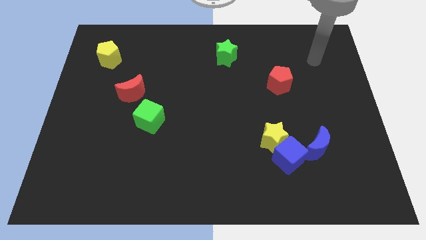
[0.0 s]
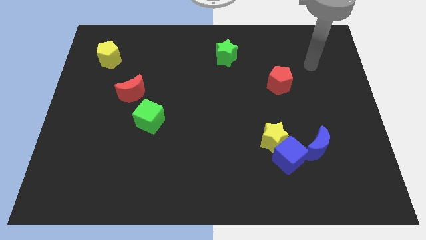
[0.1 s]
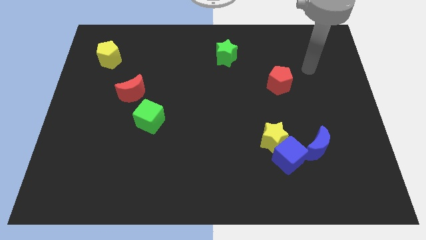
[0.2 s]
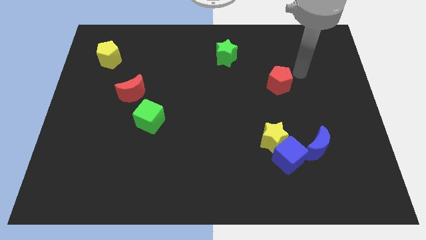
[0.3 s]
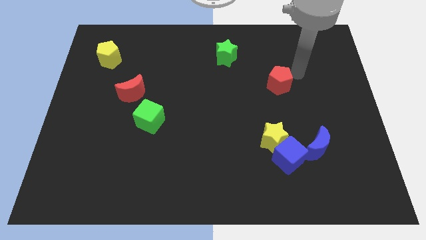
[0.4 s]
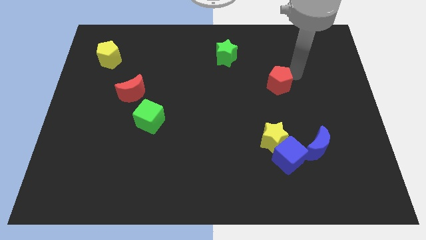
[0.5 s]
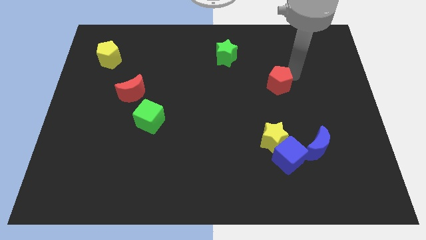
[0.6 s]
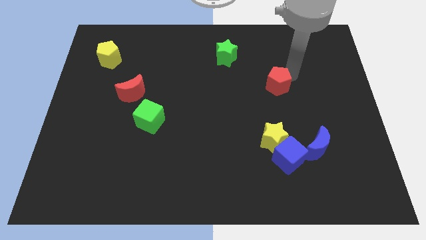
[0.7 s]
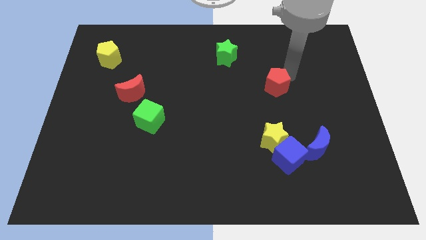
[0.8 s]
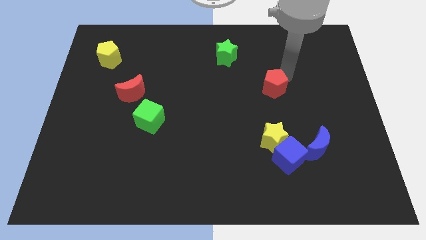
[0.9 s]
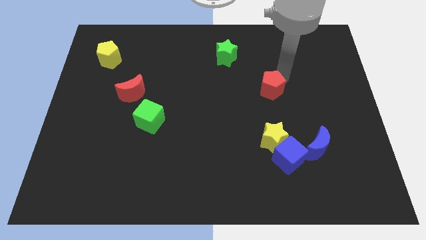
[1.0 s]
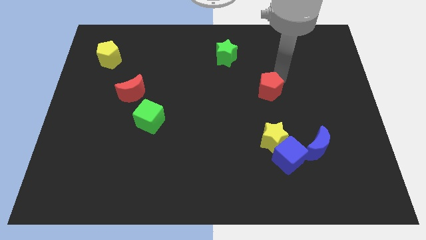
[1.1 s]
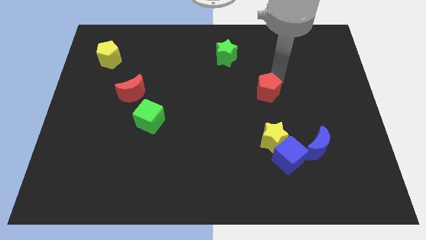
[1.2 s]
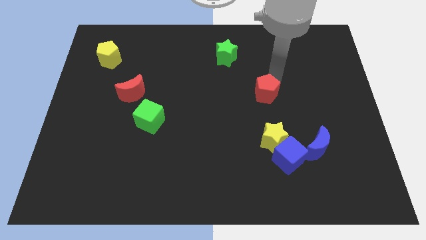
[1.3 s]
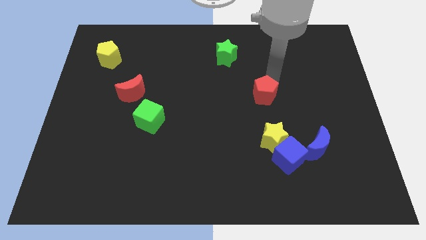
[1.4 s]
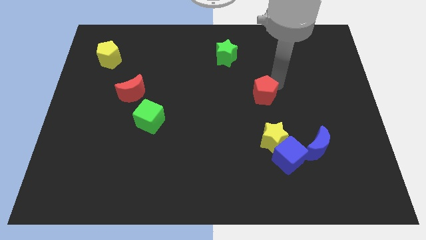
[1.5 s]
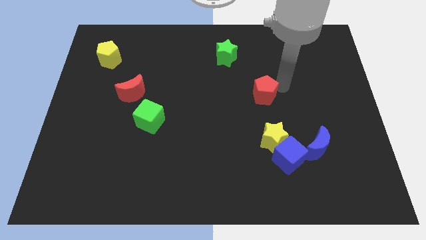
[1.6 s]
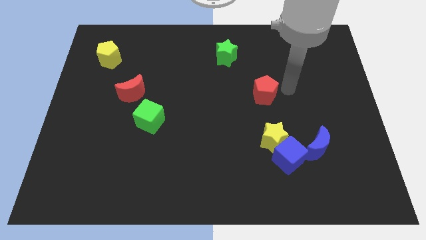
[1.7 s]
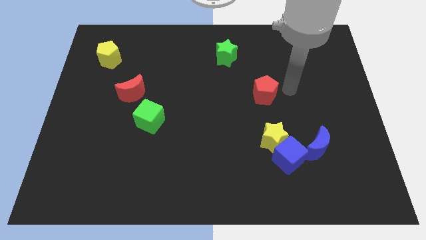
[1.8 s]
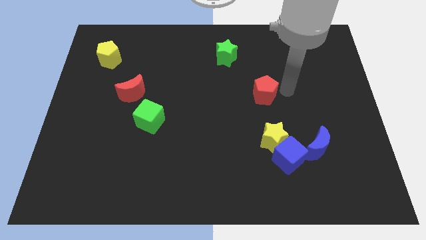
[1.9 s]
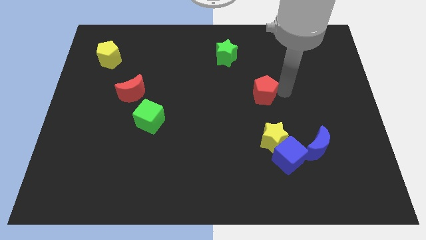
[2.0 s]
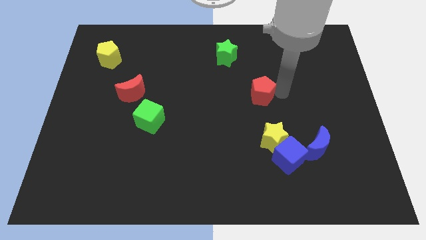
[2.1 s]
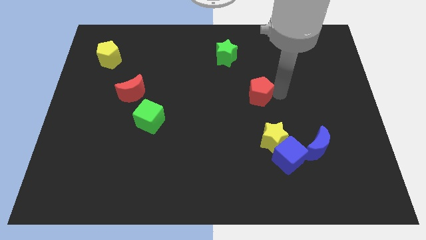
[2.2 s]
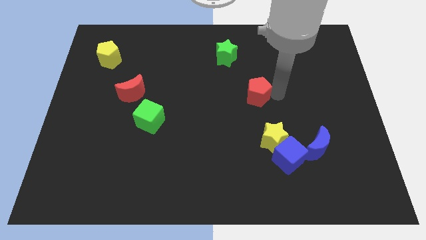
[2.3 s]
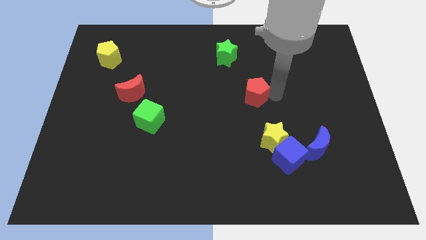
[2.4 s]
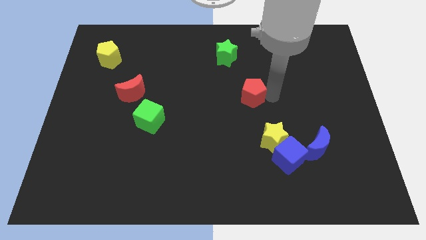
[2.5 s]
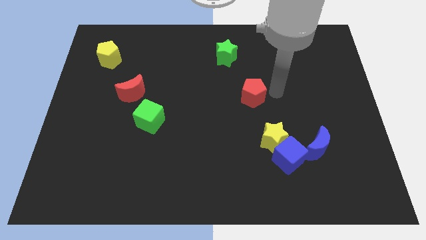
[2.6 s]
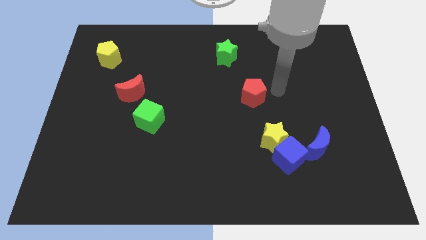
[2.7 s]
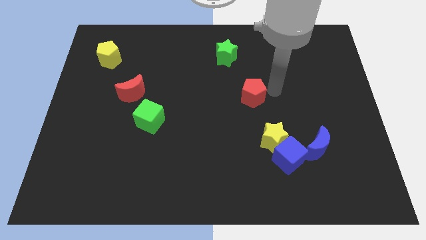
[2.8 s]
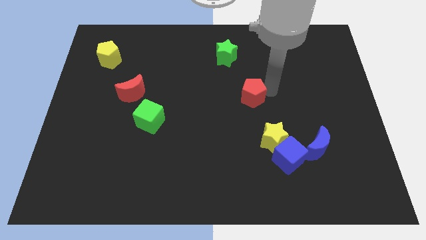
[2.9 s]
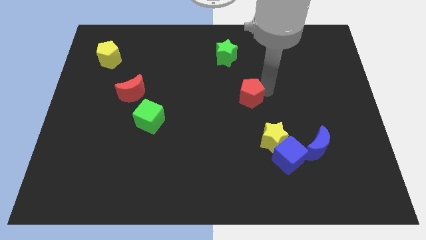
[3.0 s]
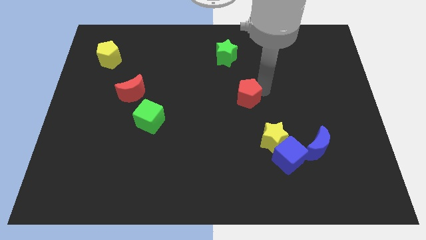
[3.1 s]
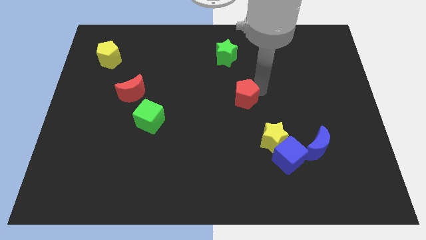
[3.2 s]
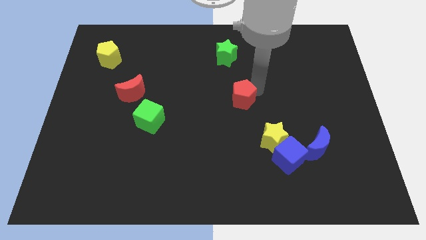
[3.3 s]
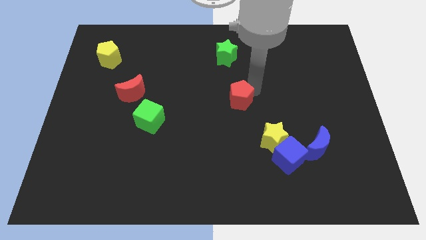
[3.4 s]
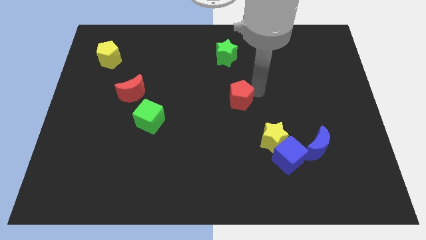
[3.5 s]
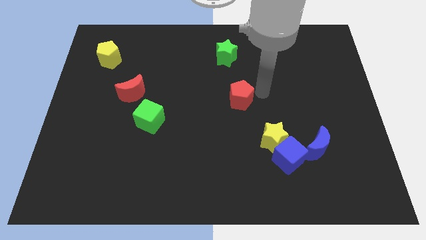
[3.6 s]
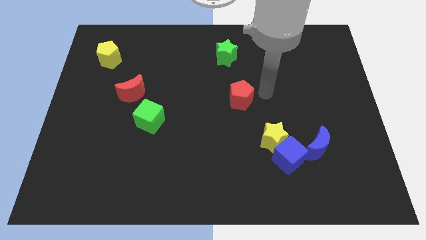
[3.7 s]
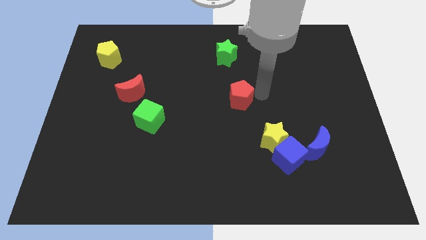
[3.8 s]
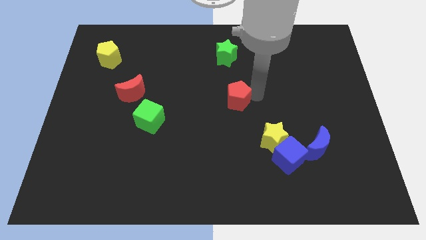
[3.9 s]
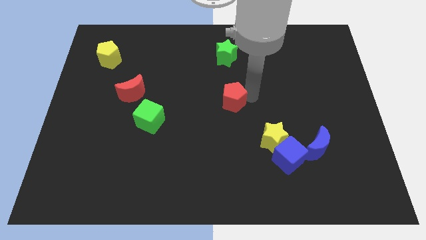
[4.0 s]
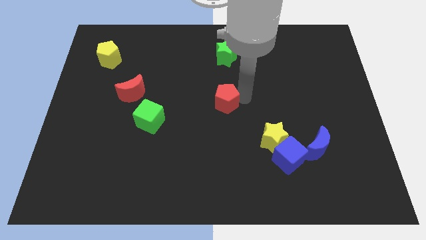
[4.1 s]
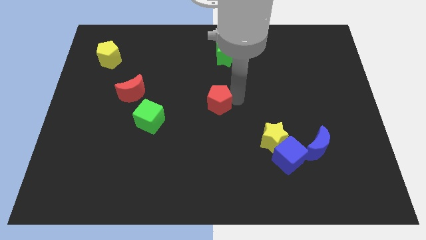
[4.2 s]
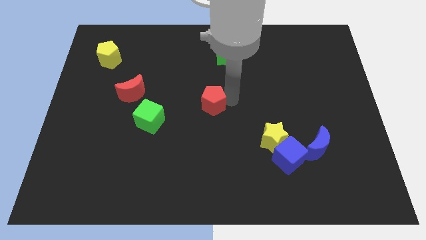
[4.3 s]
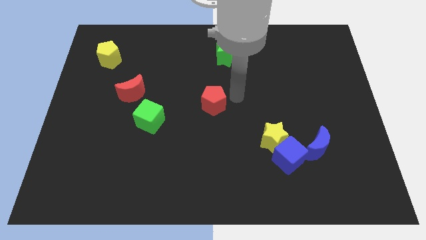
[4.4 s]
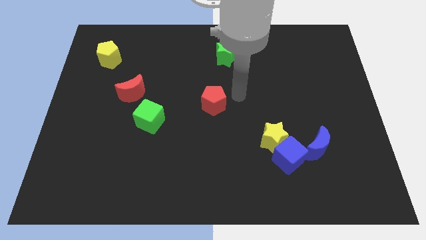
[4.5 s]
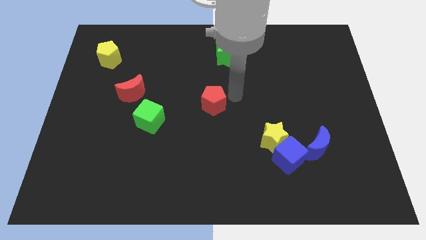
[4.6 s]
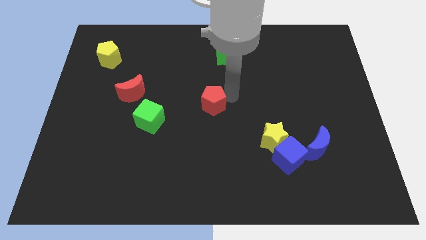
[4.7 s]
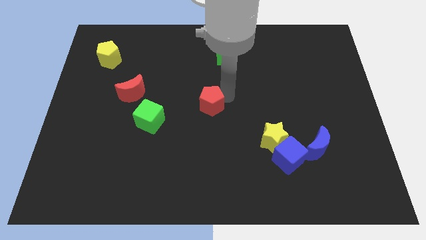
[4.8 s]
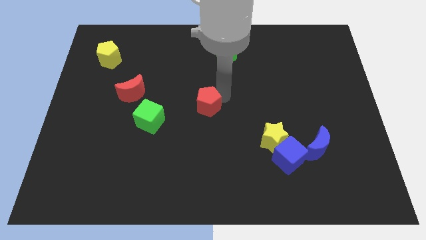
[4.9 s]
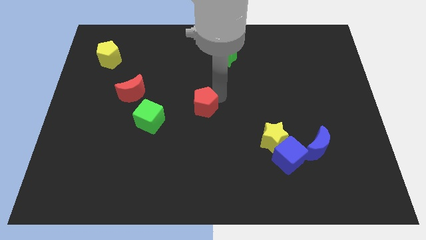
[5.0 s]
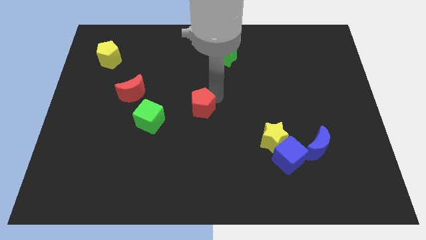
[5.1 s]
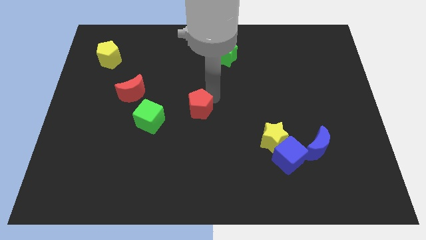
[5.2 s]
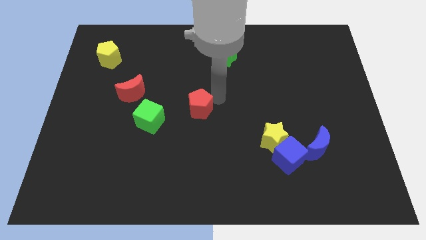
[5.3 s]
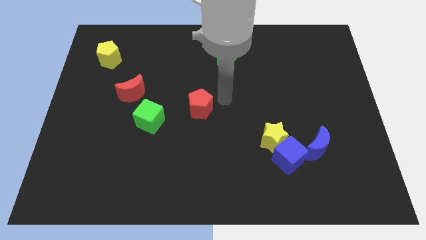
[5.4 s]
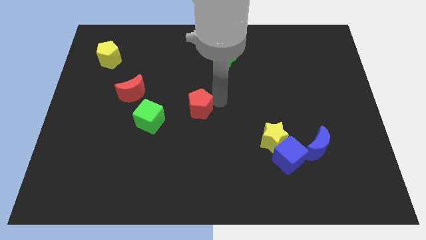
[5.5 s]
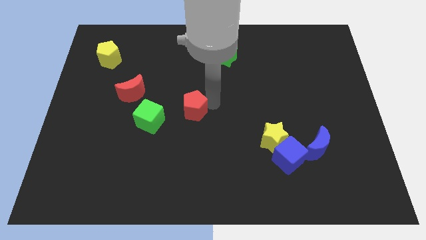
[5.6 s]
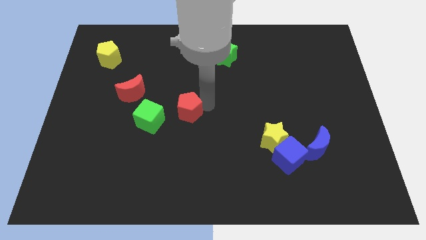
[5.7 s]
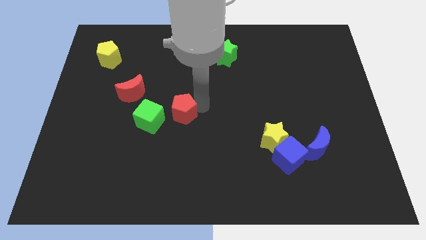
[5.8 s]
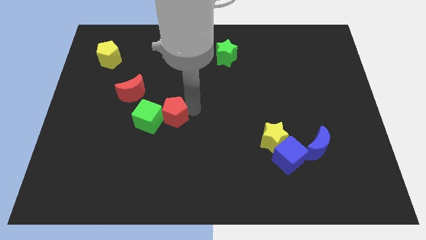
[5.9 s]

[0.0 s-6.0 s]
put the red pentagon close to the green cube

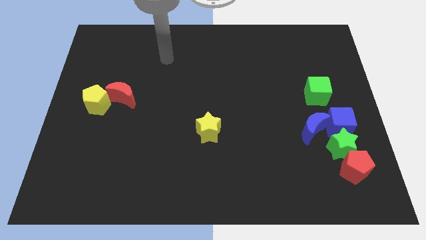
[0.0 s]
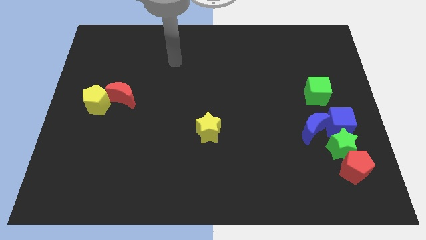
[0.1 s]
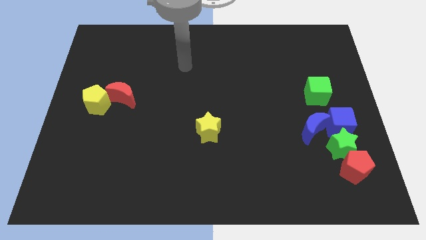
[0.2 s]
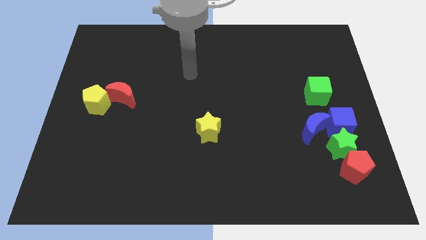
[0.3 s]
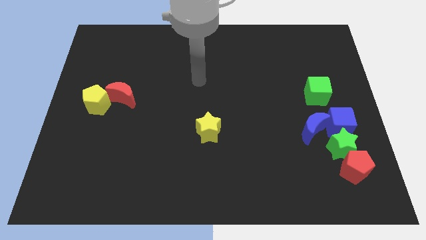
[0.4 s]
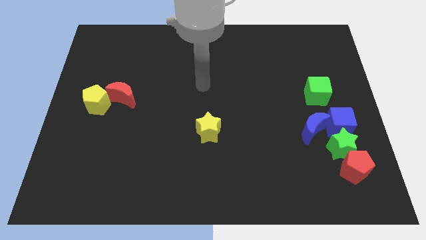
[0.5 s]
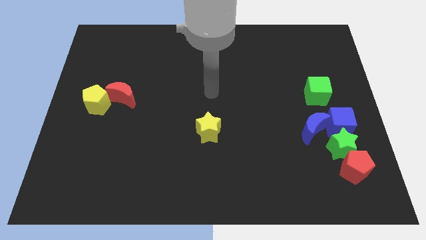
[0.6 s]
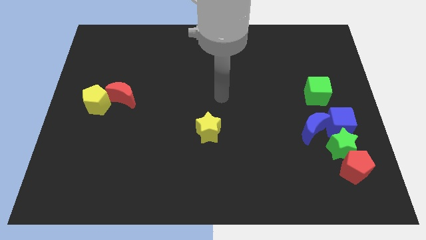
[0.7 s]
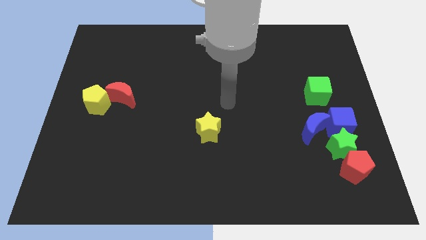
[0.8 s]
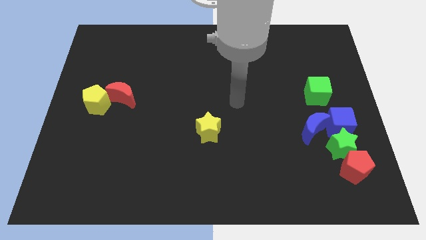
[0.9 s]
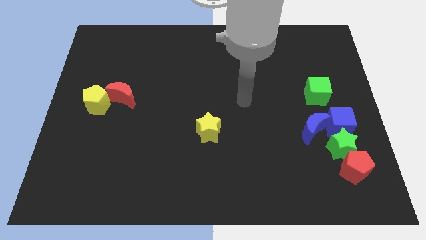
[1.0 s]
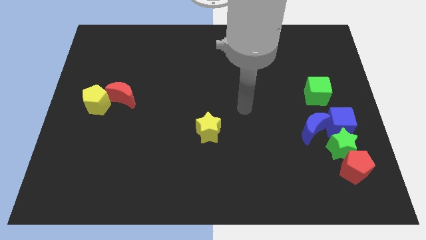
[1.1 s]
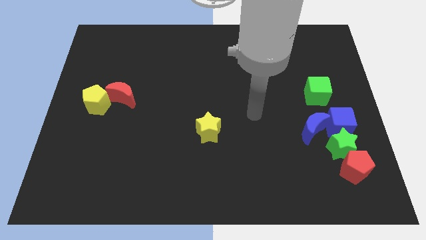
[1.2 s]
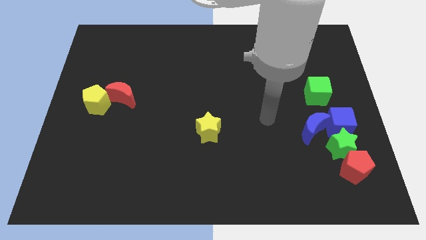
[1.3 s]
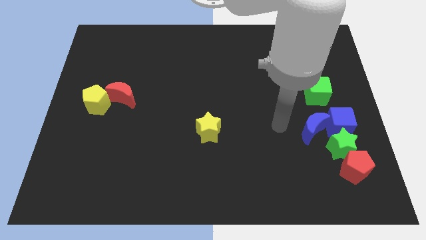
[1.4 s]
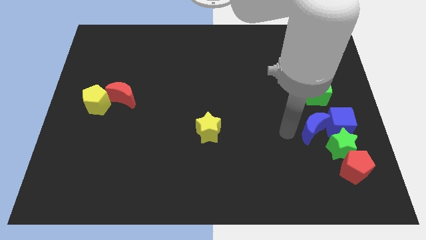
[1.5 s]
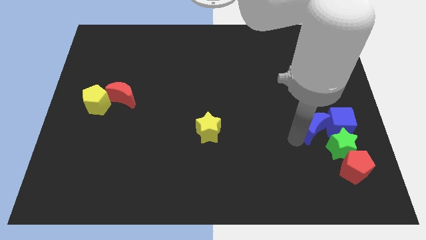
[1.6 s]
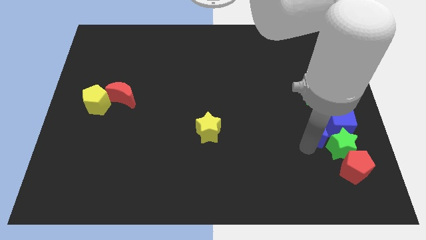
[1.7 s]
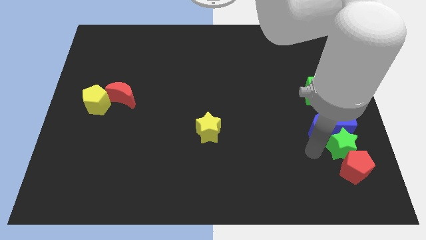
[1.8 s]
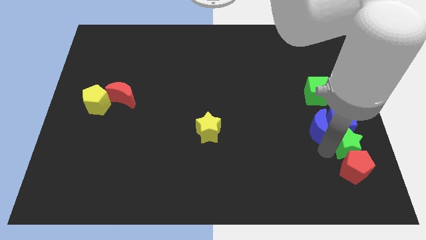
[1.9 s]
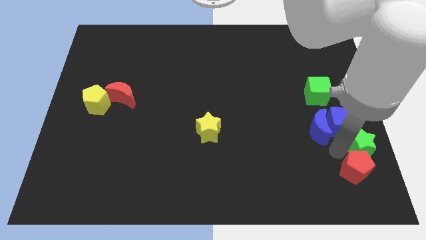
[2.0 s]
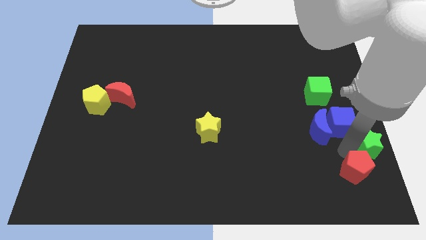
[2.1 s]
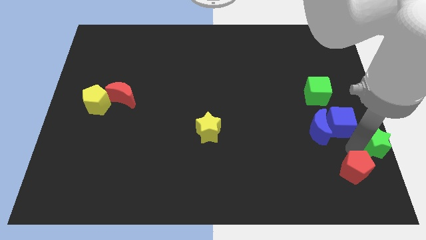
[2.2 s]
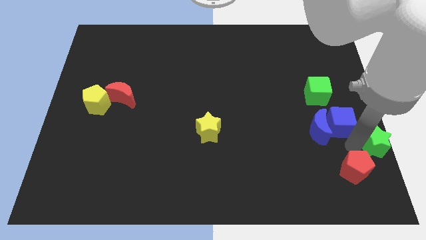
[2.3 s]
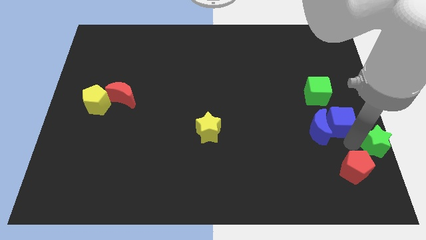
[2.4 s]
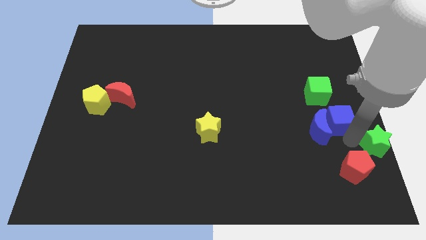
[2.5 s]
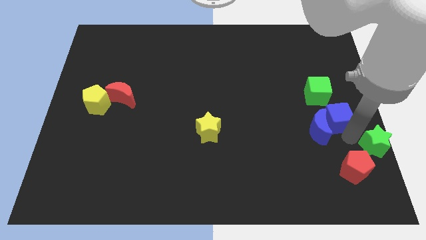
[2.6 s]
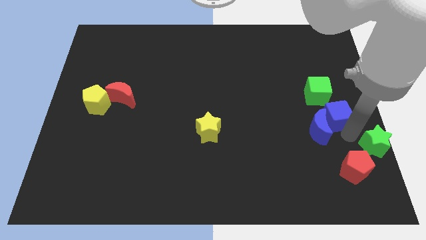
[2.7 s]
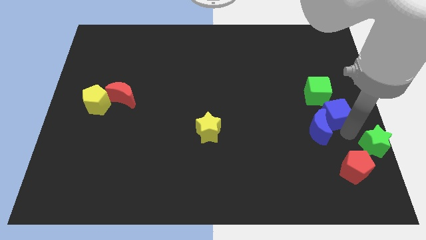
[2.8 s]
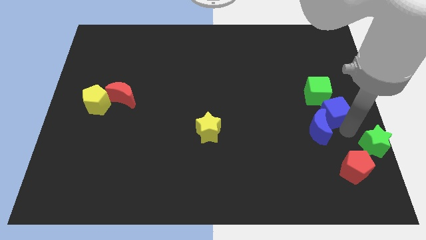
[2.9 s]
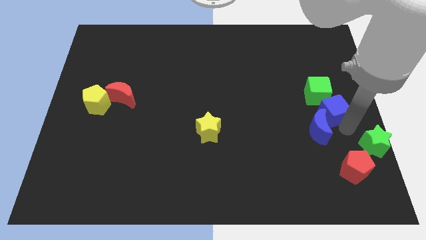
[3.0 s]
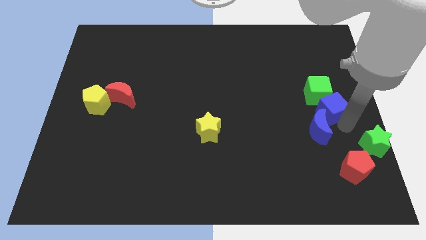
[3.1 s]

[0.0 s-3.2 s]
push the blue cube next to the green cube

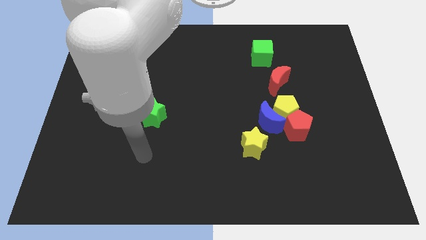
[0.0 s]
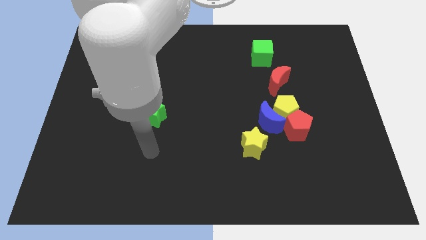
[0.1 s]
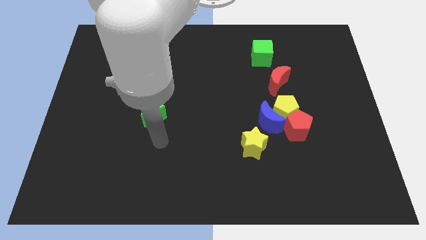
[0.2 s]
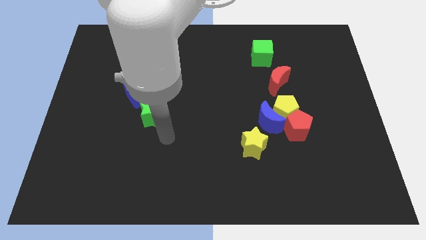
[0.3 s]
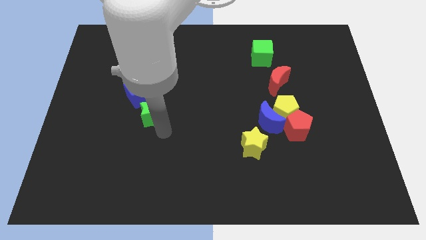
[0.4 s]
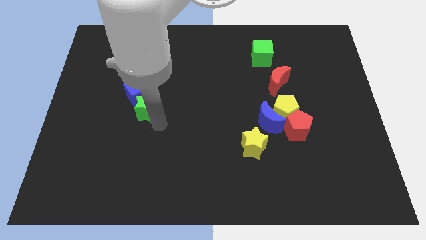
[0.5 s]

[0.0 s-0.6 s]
slide the green star to the blue cube
